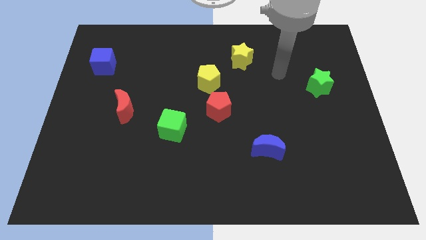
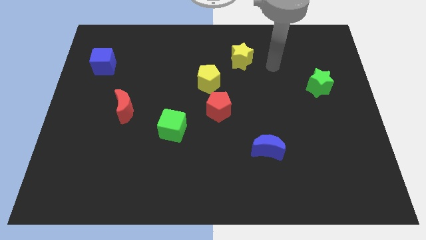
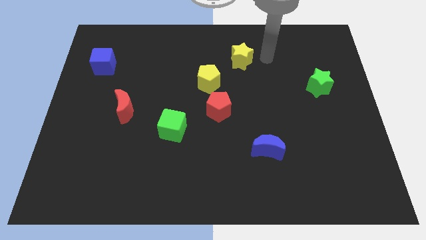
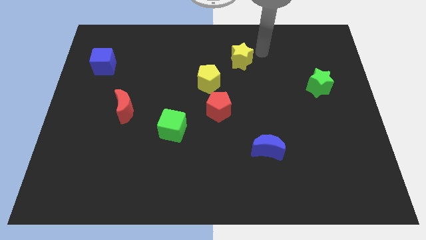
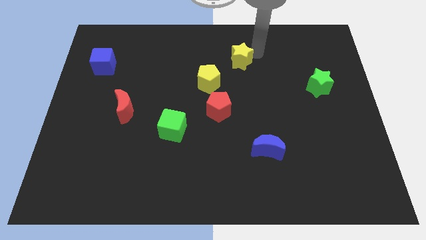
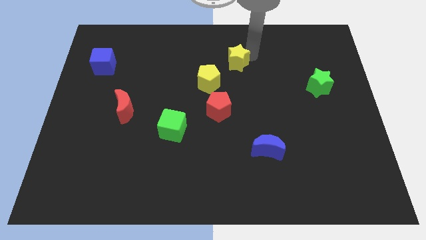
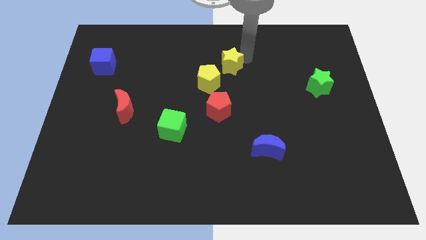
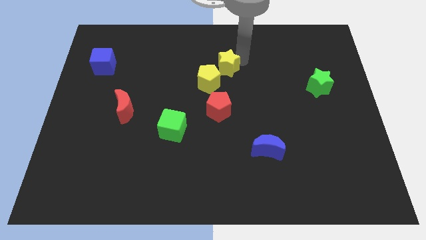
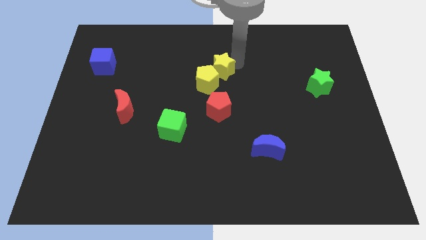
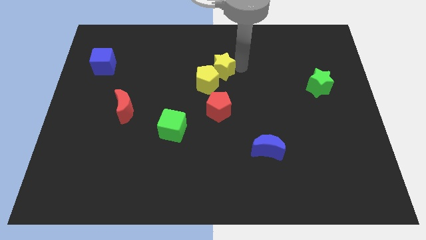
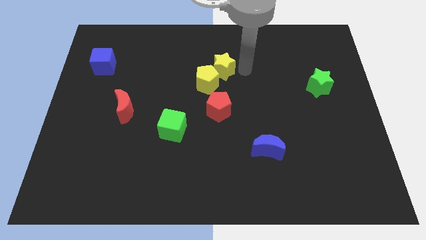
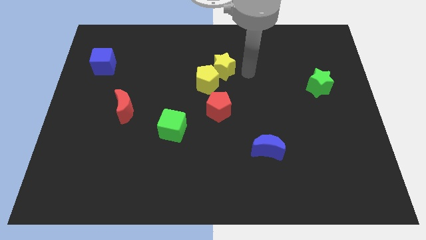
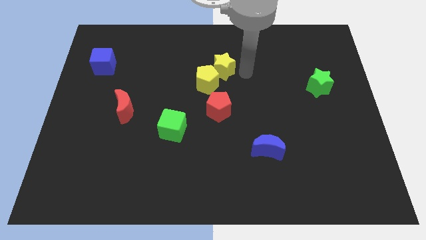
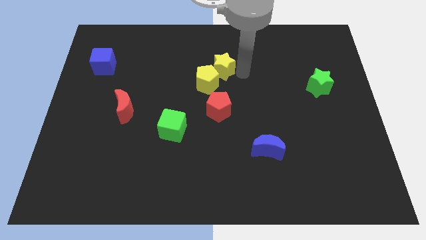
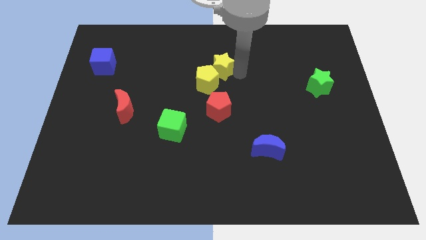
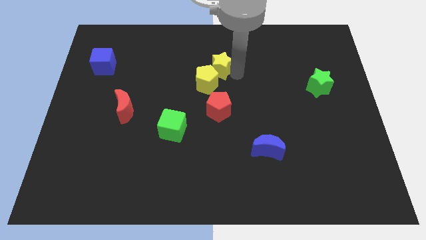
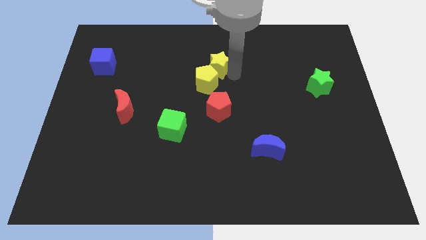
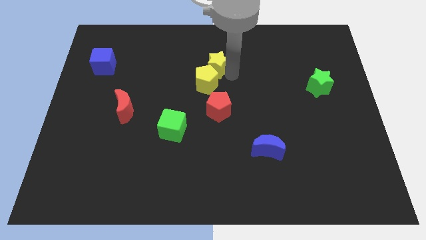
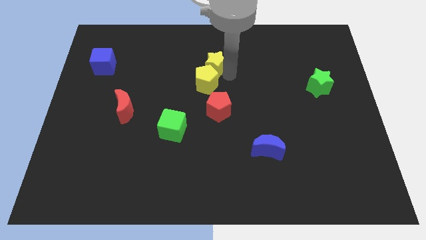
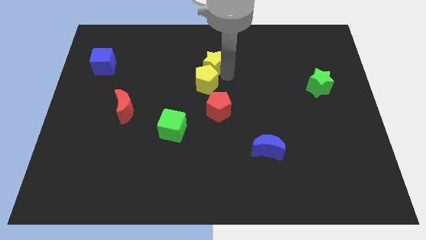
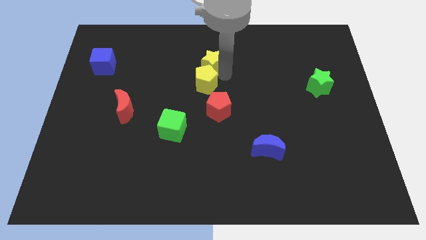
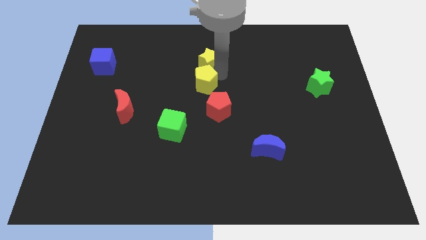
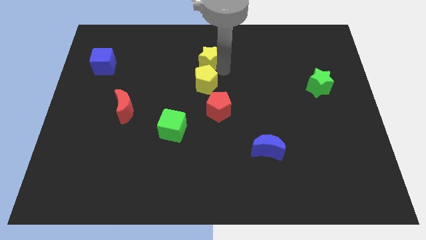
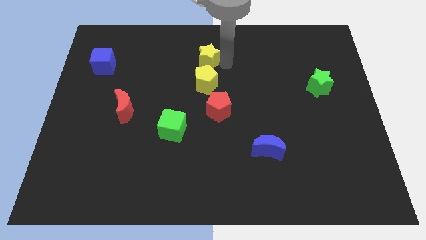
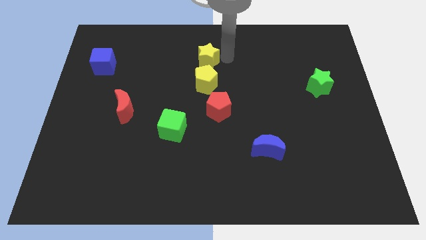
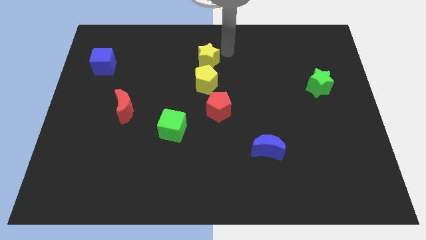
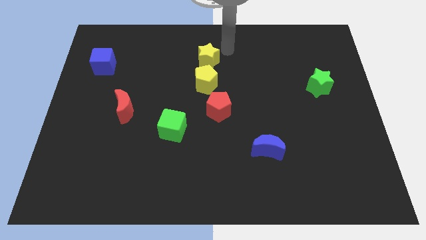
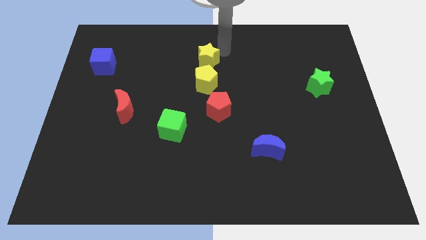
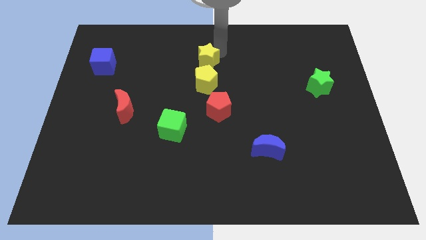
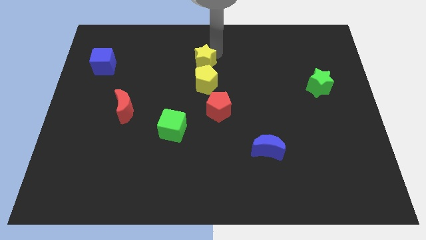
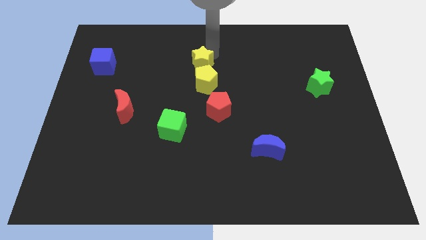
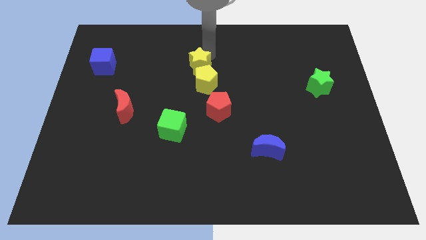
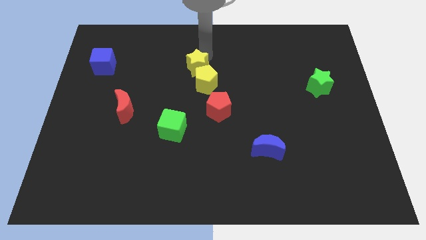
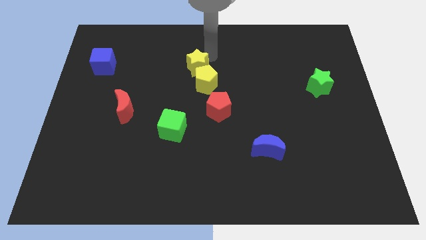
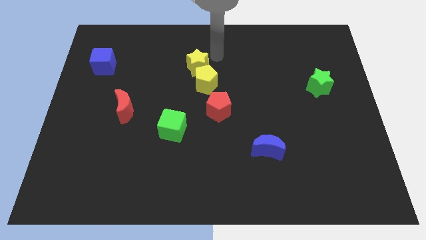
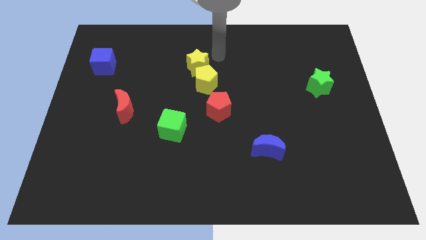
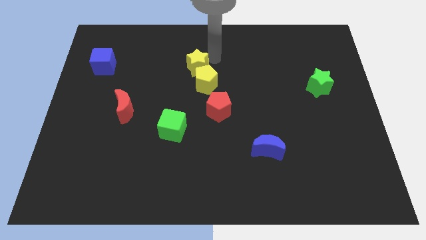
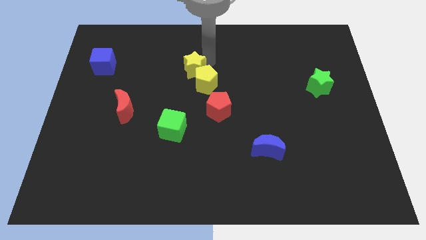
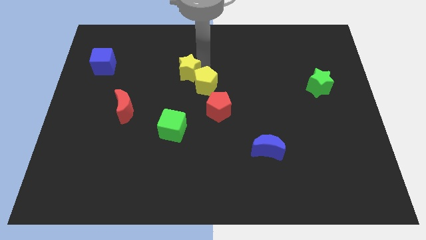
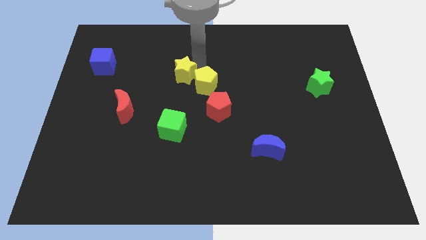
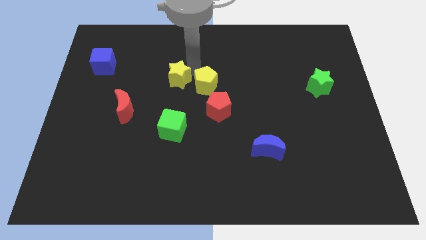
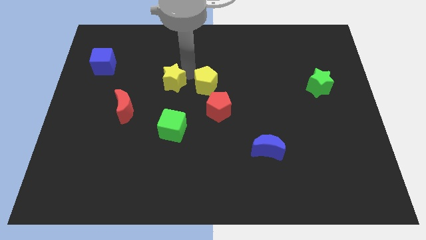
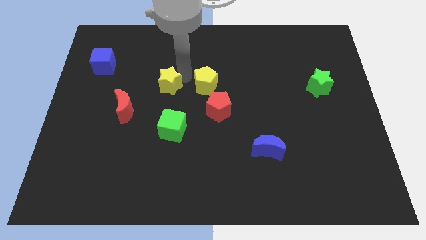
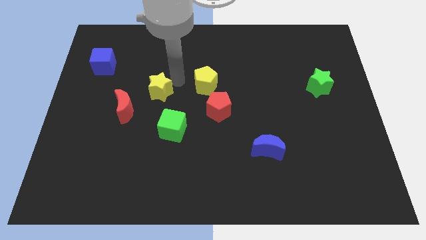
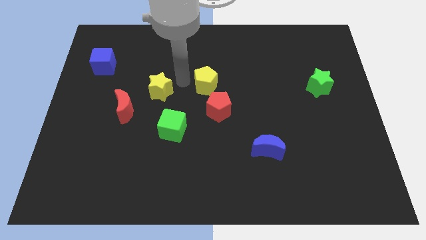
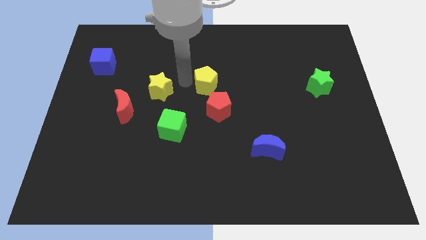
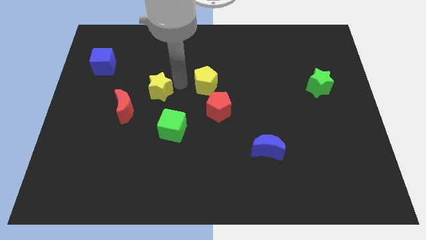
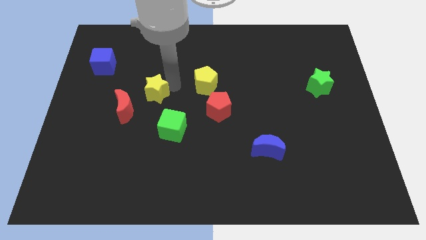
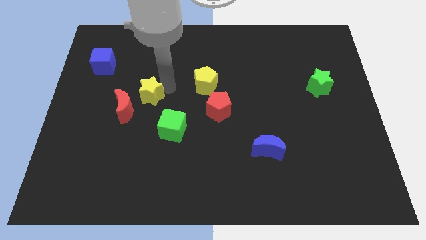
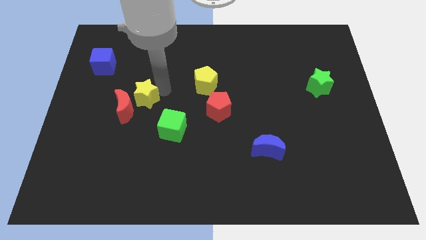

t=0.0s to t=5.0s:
slide the yellow star next to the red moon

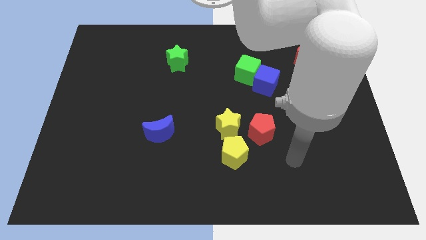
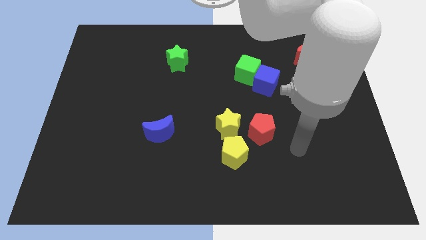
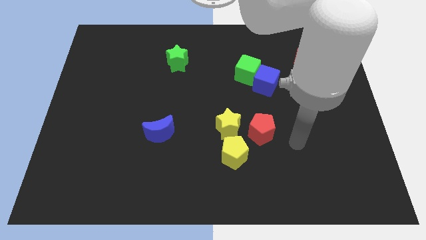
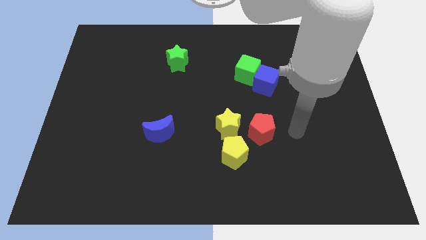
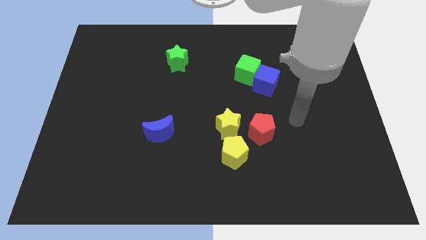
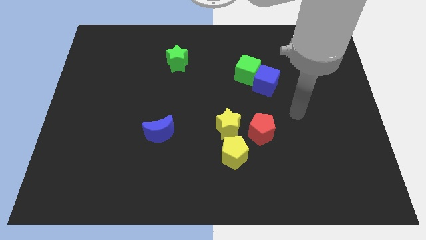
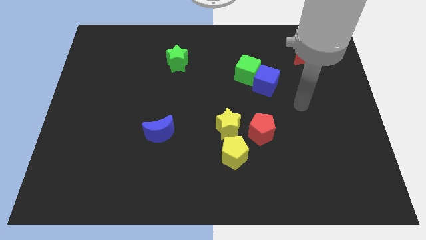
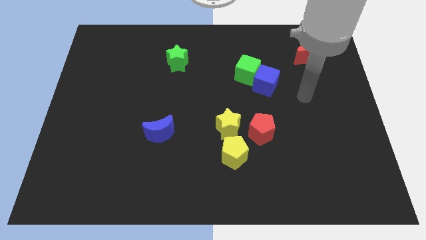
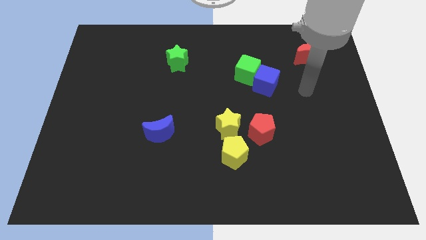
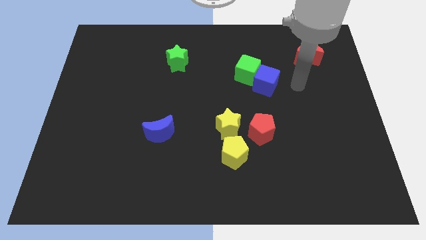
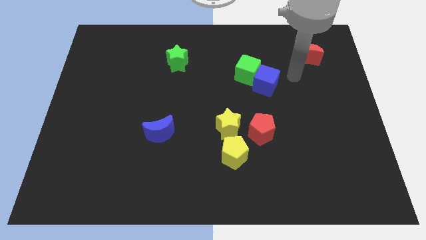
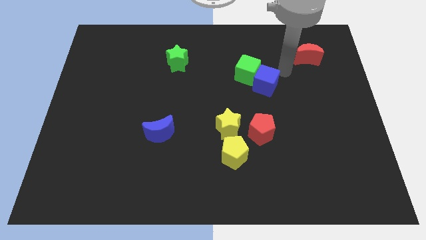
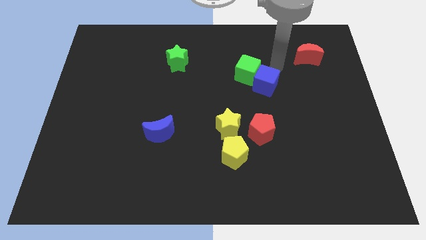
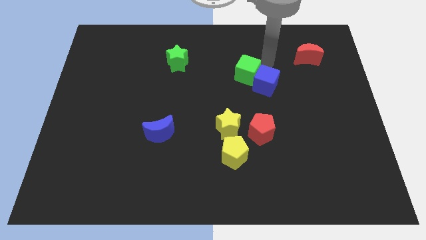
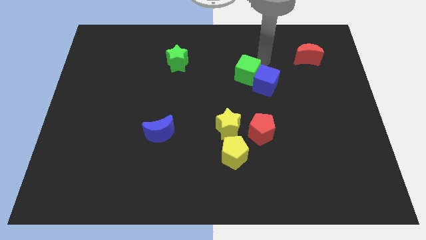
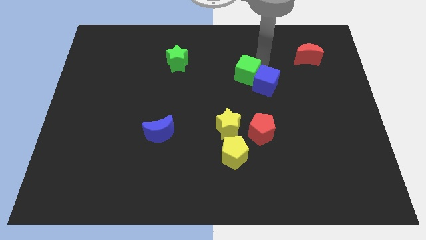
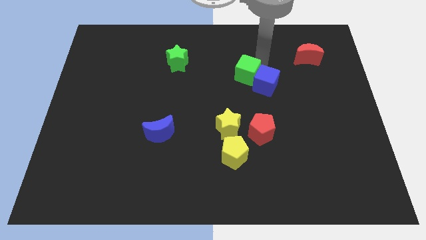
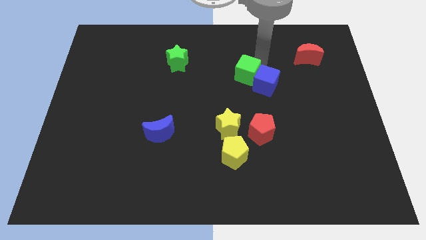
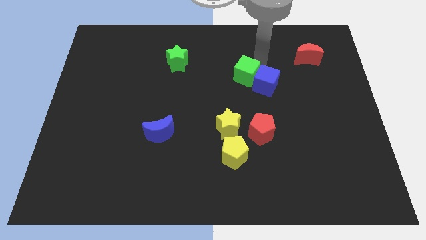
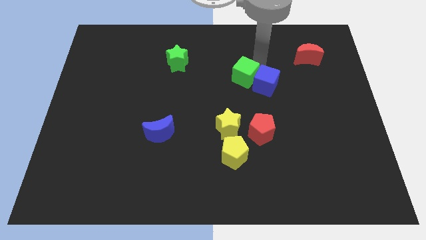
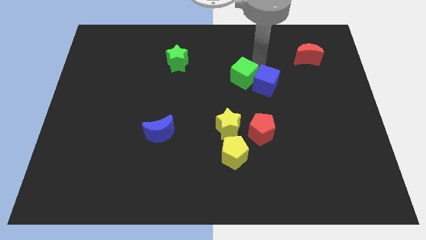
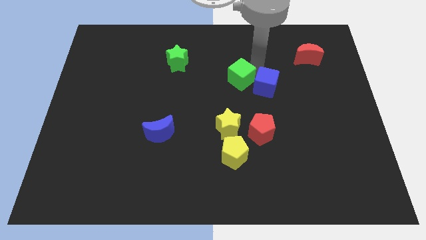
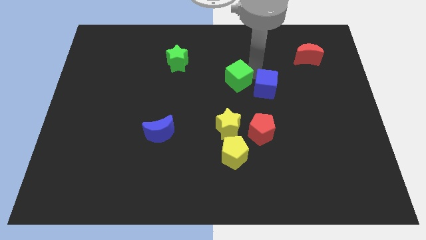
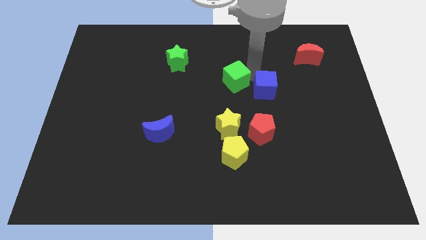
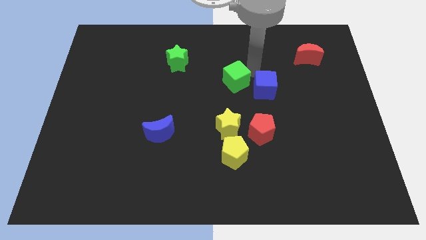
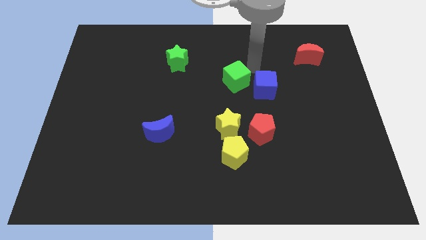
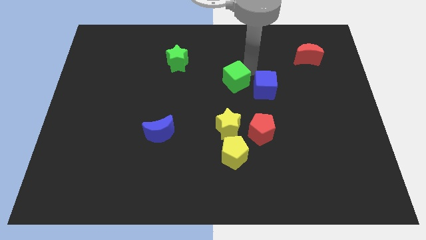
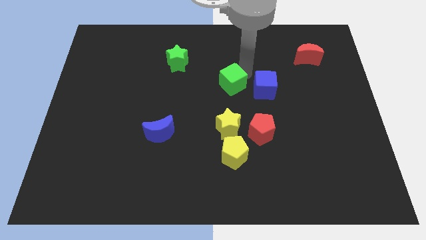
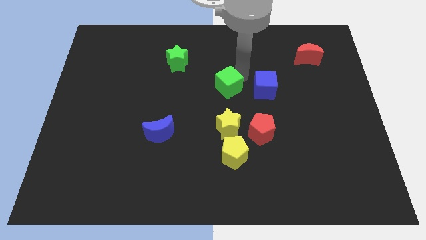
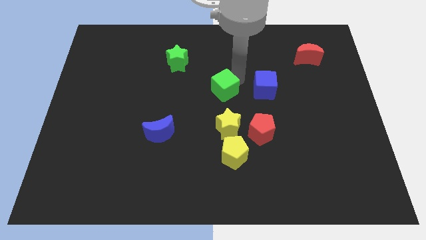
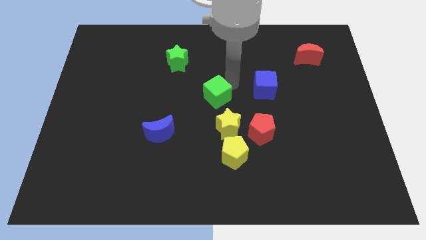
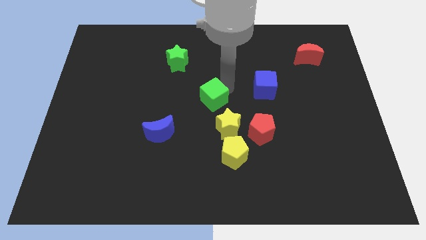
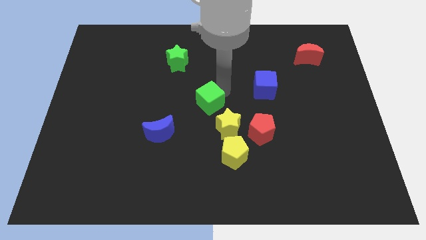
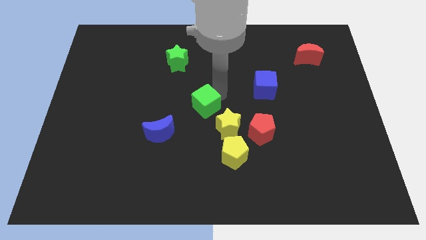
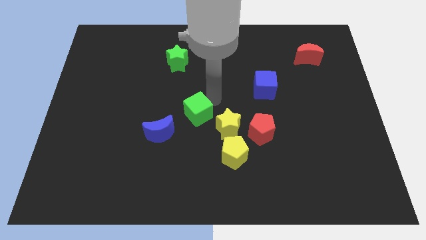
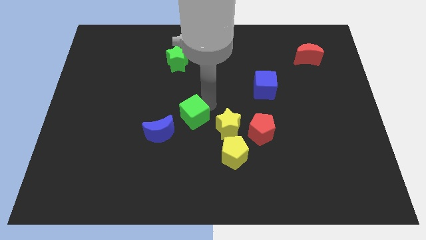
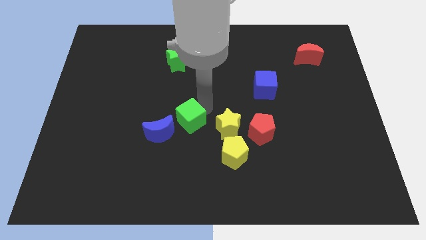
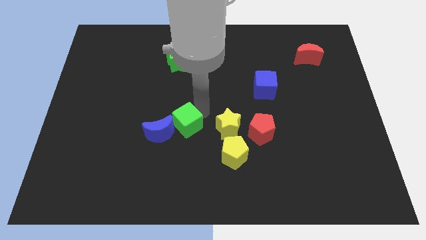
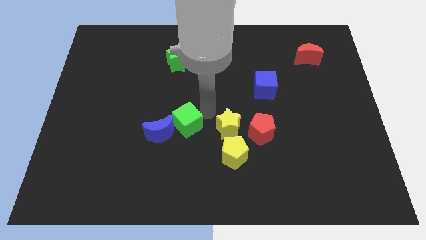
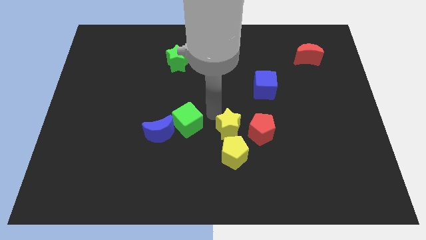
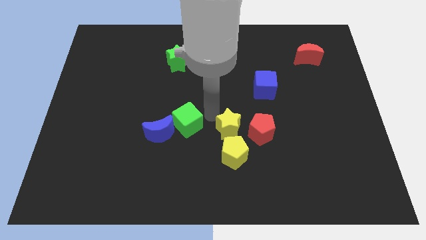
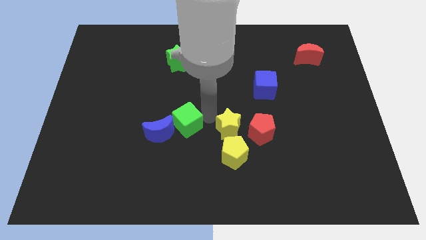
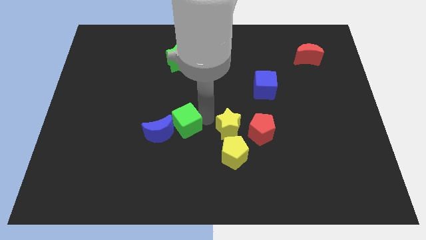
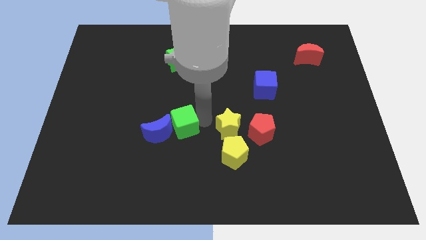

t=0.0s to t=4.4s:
push the green cube next to the blue moon
